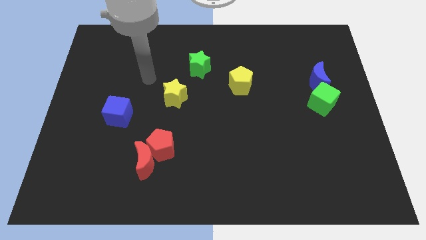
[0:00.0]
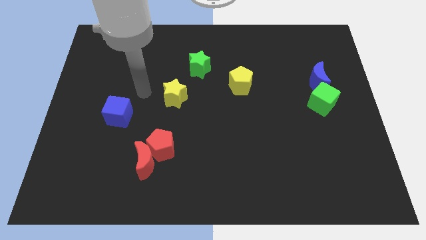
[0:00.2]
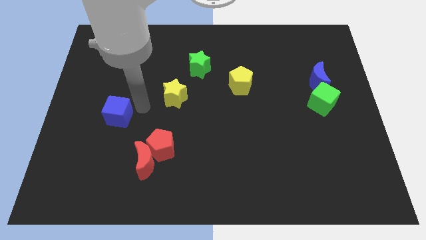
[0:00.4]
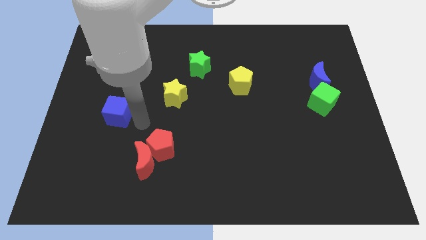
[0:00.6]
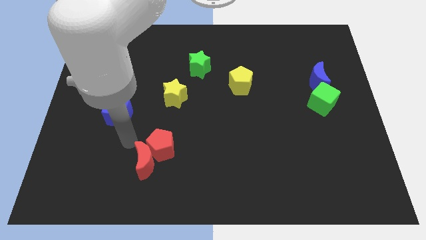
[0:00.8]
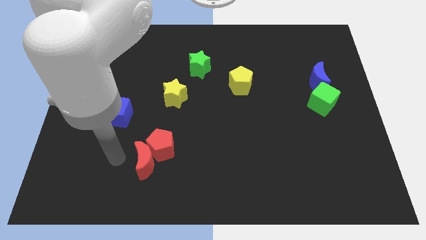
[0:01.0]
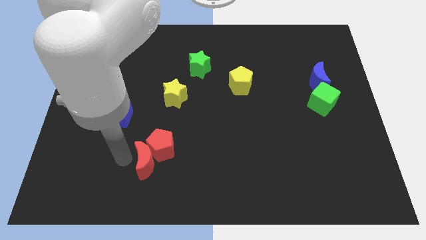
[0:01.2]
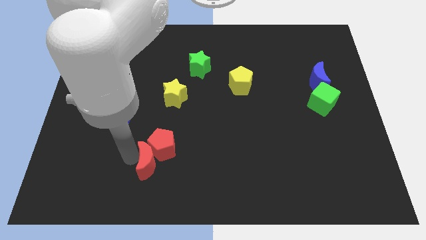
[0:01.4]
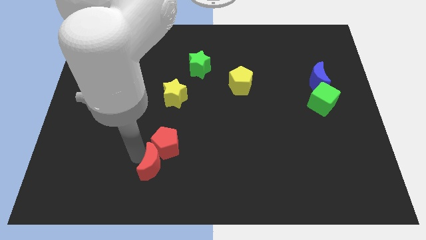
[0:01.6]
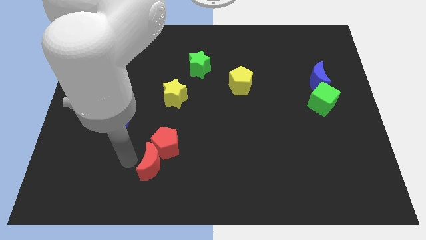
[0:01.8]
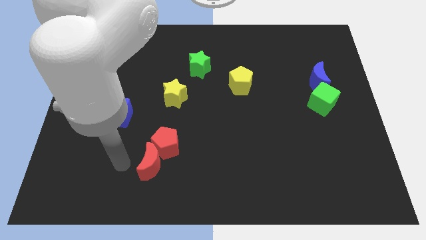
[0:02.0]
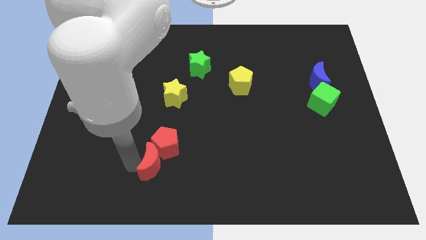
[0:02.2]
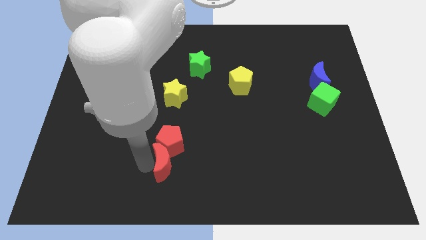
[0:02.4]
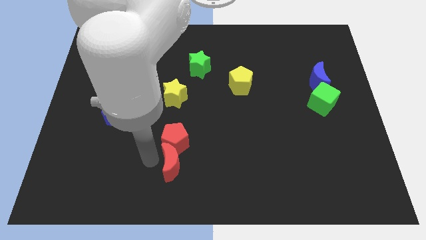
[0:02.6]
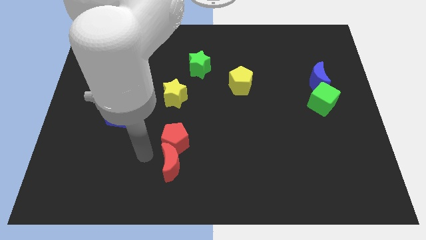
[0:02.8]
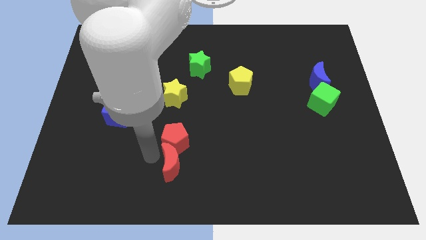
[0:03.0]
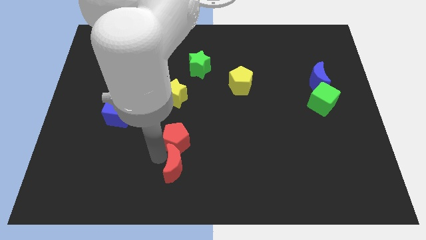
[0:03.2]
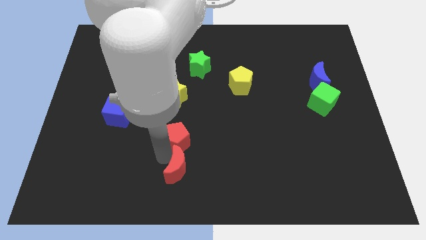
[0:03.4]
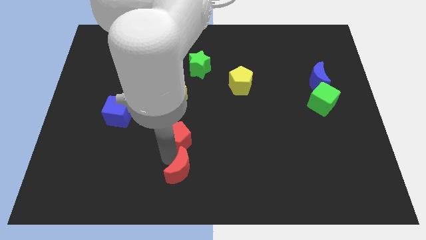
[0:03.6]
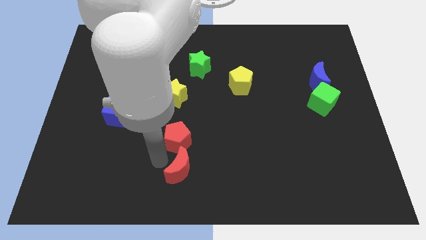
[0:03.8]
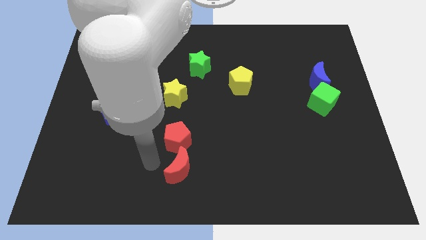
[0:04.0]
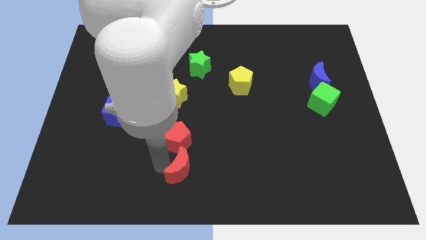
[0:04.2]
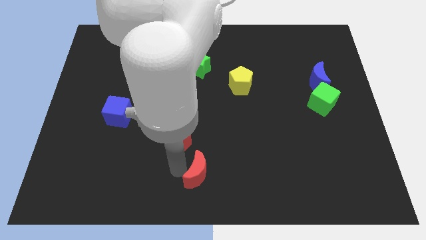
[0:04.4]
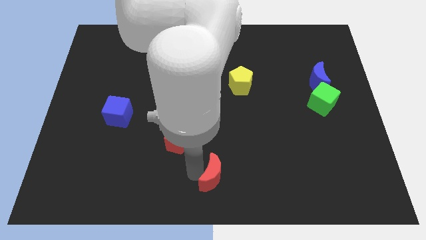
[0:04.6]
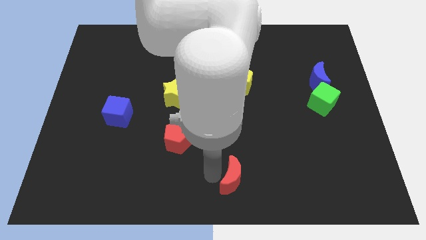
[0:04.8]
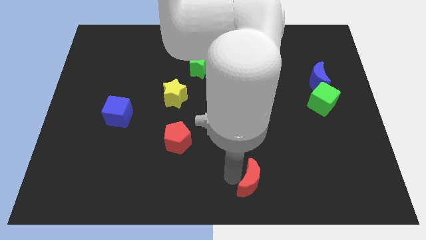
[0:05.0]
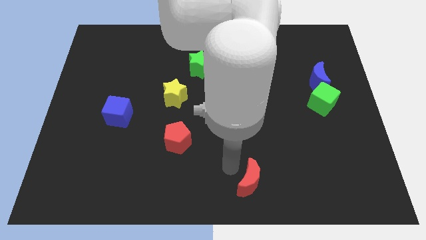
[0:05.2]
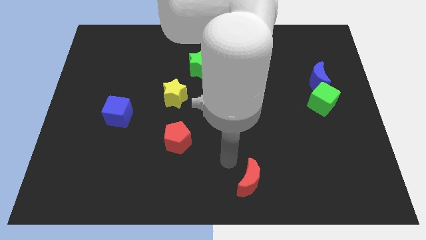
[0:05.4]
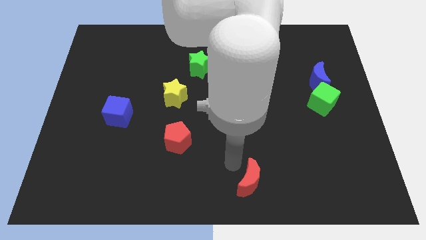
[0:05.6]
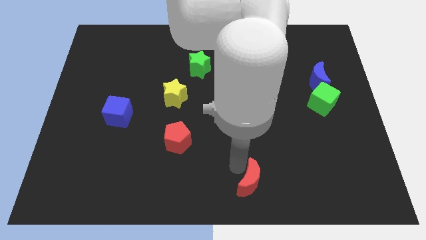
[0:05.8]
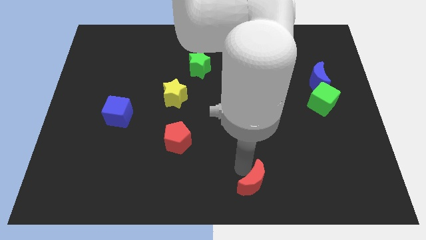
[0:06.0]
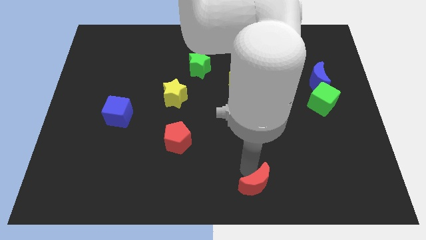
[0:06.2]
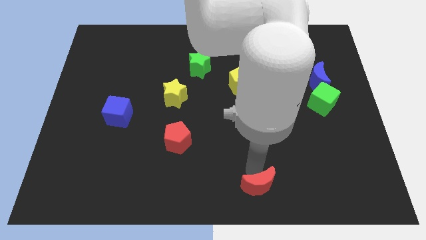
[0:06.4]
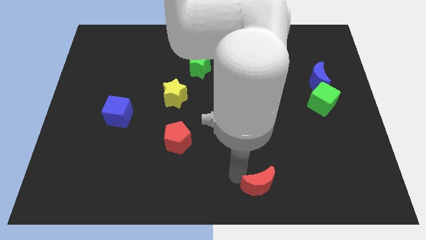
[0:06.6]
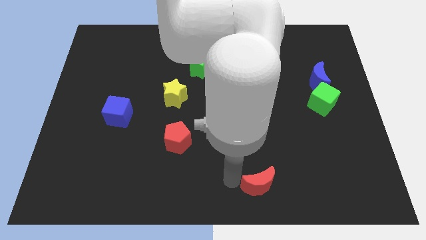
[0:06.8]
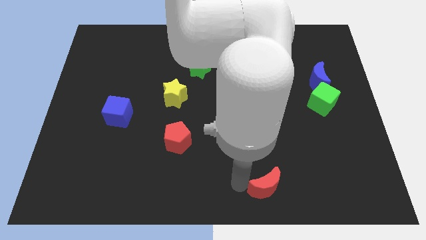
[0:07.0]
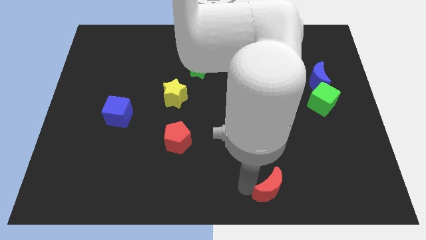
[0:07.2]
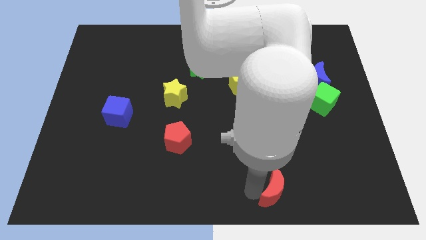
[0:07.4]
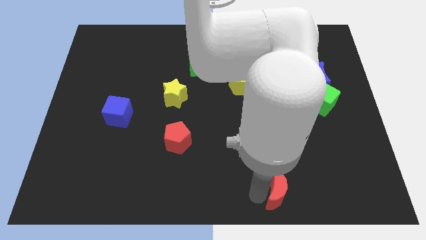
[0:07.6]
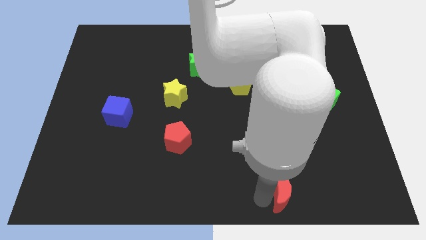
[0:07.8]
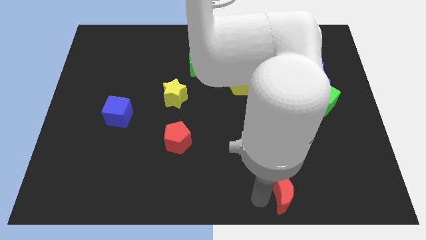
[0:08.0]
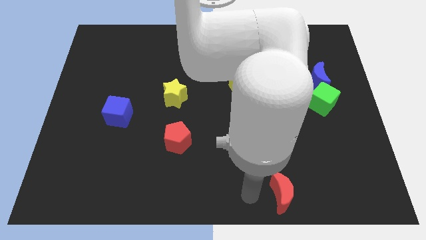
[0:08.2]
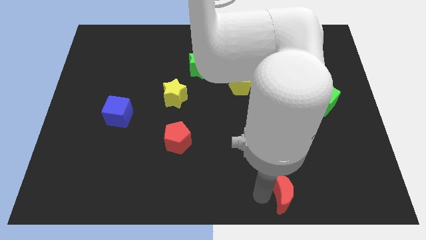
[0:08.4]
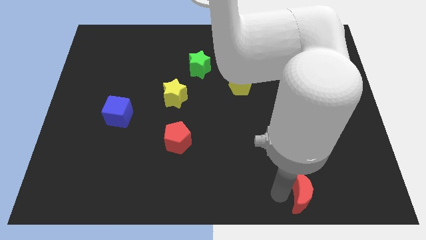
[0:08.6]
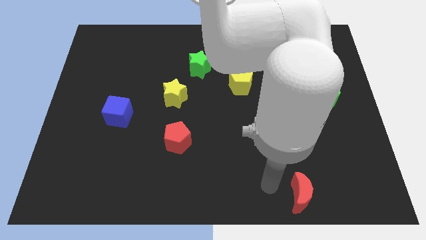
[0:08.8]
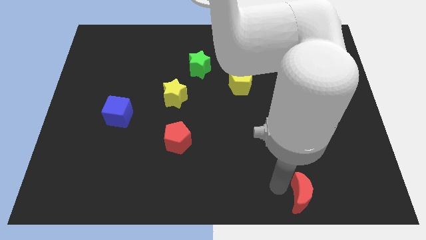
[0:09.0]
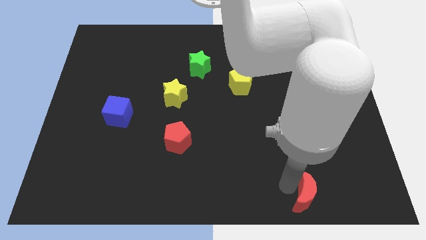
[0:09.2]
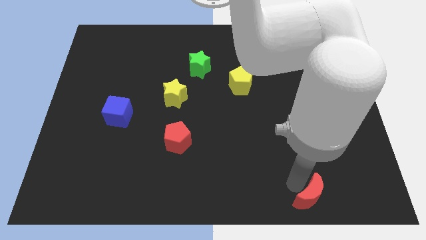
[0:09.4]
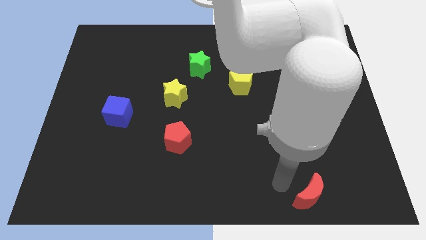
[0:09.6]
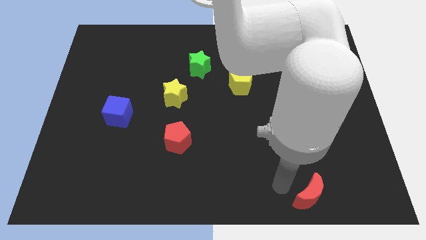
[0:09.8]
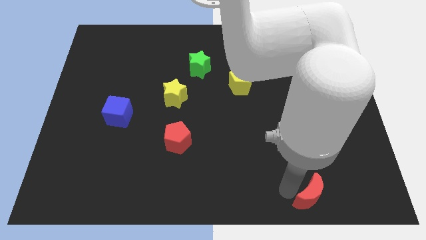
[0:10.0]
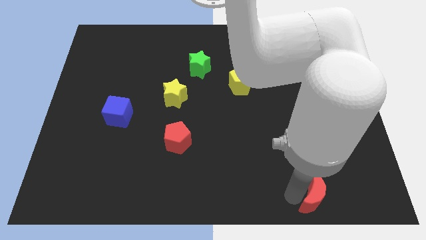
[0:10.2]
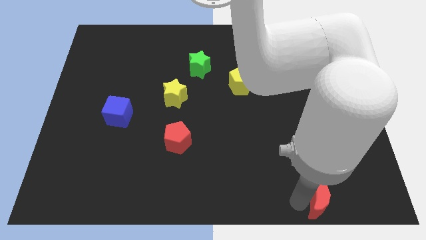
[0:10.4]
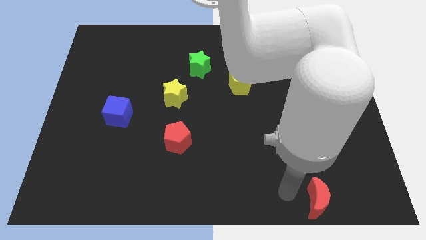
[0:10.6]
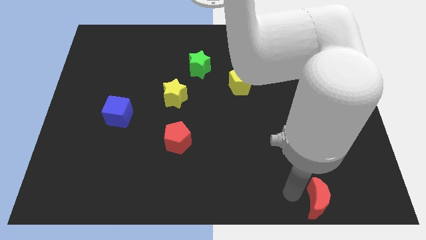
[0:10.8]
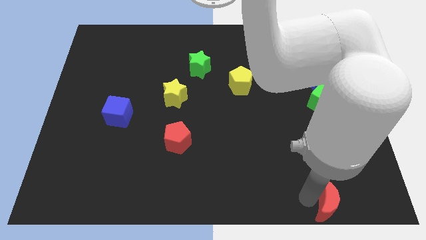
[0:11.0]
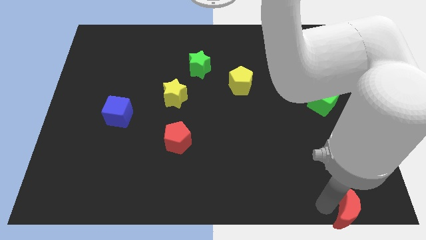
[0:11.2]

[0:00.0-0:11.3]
move the red moon to the lower right corner

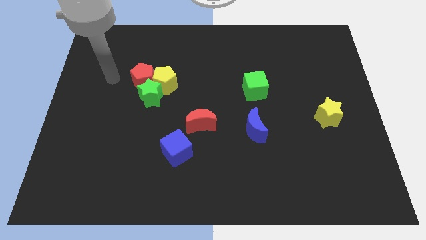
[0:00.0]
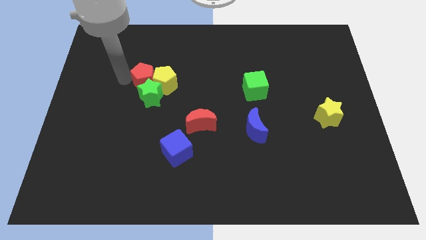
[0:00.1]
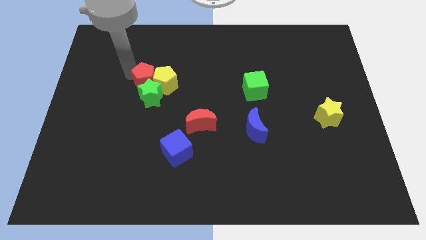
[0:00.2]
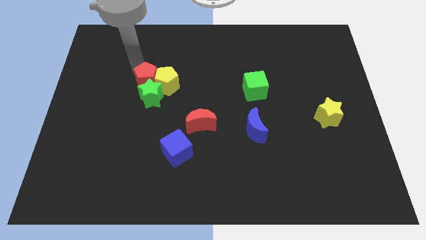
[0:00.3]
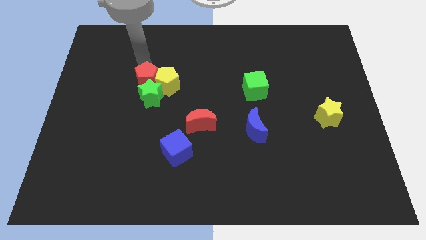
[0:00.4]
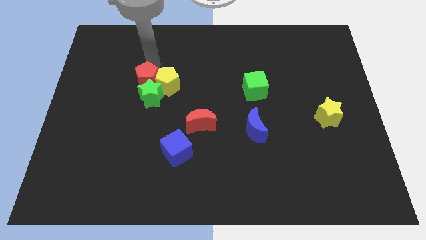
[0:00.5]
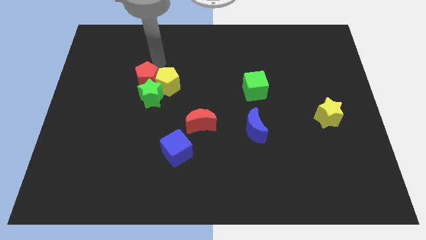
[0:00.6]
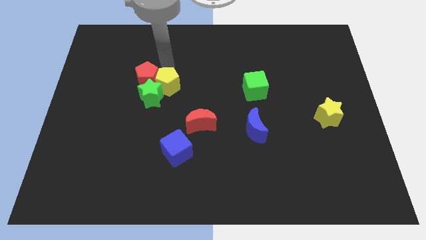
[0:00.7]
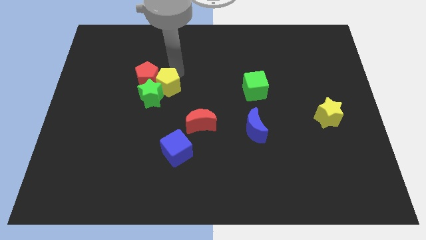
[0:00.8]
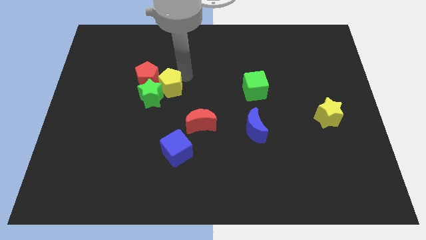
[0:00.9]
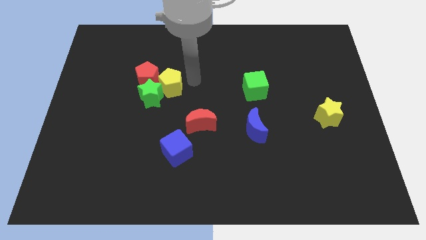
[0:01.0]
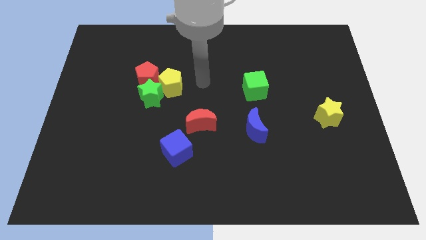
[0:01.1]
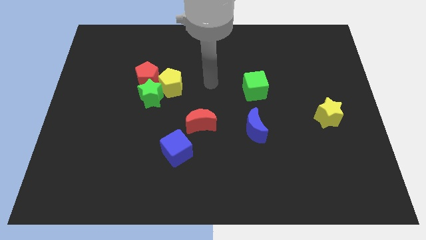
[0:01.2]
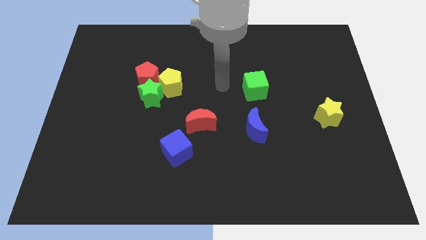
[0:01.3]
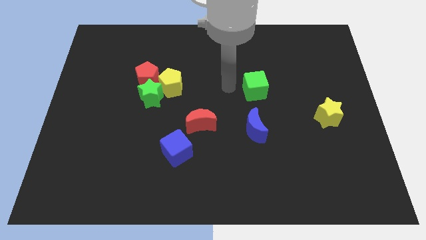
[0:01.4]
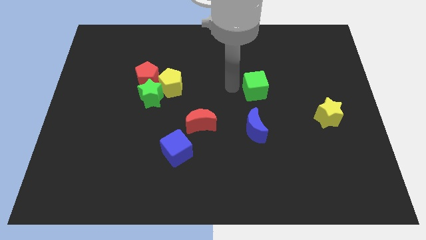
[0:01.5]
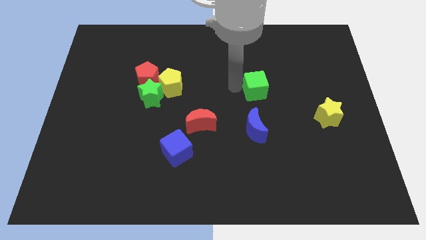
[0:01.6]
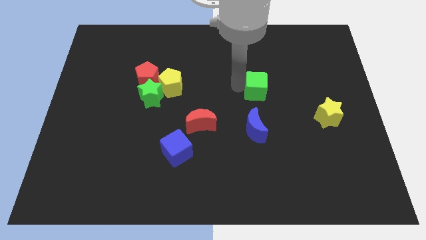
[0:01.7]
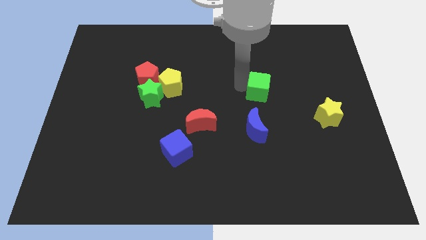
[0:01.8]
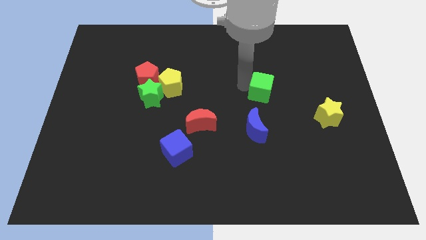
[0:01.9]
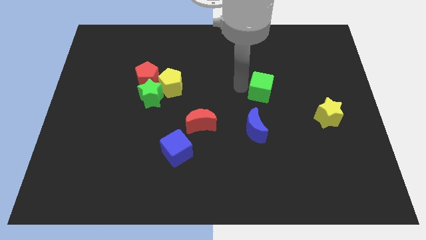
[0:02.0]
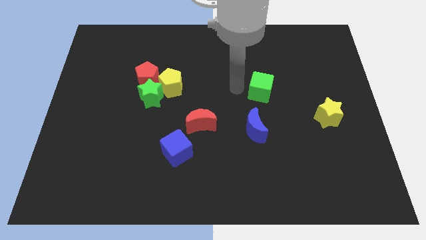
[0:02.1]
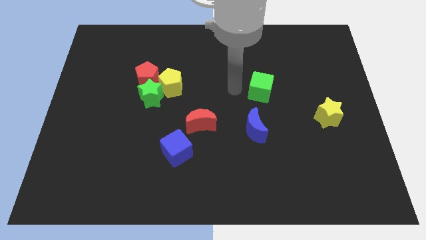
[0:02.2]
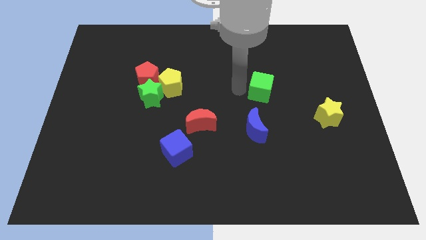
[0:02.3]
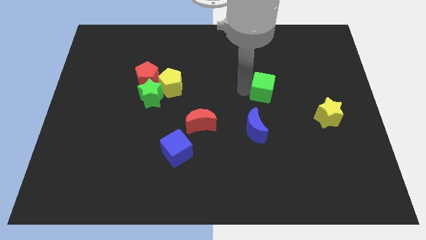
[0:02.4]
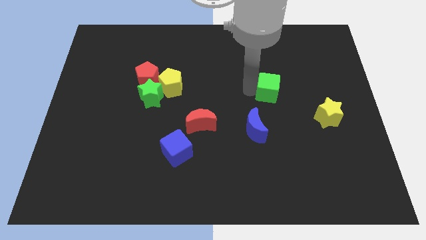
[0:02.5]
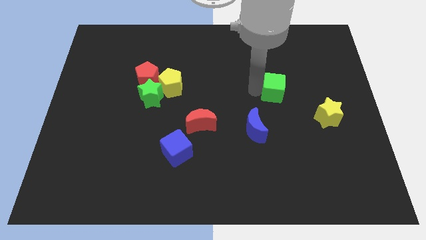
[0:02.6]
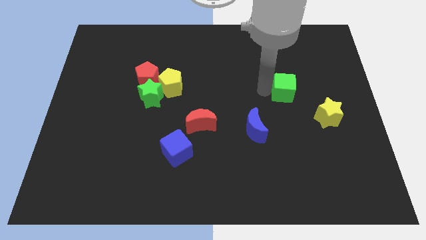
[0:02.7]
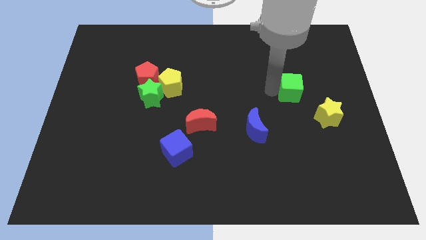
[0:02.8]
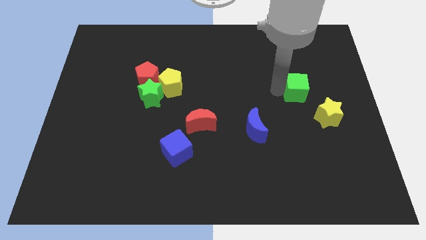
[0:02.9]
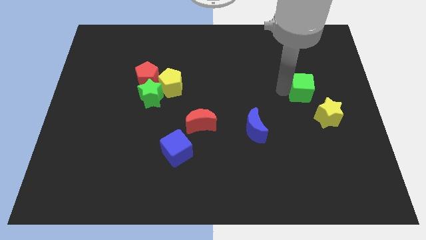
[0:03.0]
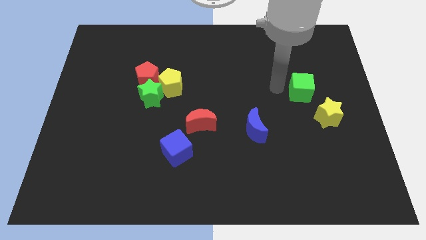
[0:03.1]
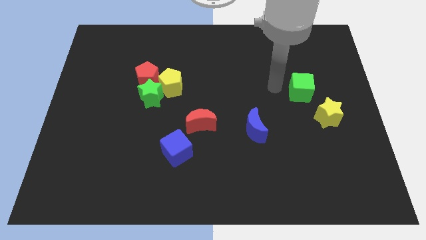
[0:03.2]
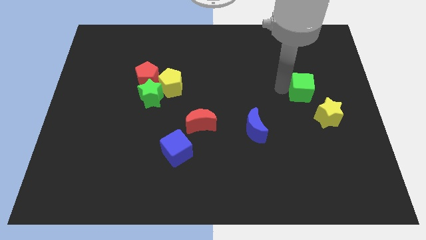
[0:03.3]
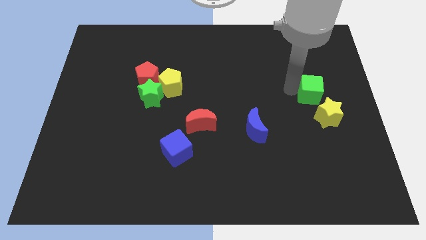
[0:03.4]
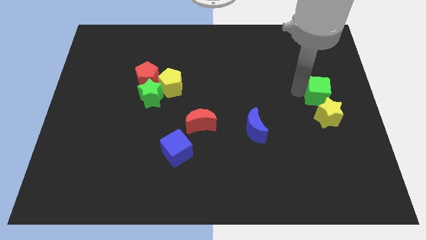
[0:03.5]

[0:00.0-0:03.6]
move the green cube to the center right
